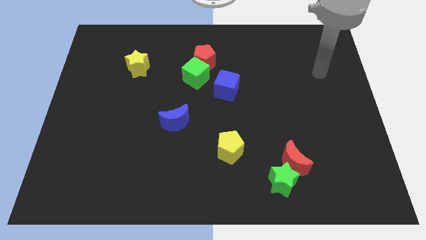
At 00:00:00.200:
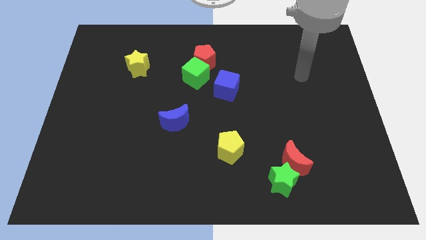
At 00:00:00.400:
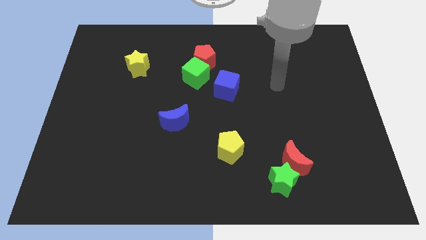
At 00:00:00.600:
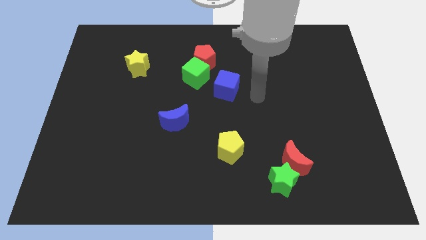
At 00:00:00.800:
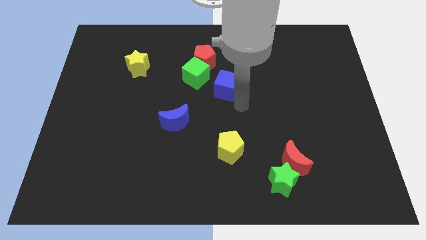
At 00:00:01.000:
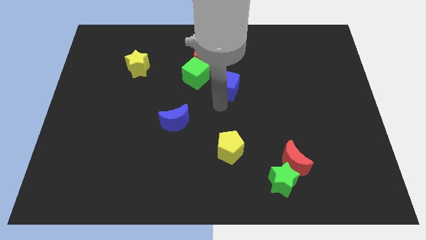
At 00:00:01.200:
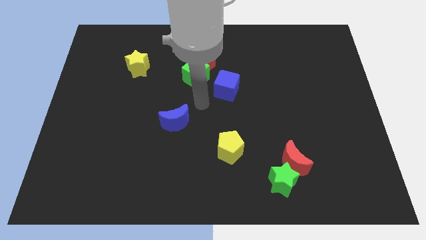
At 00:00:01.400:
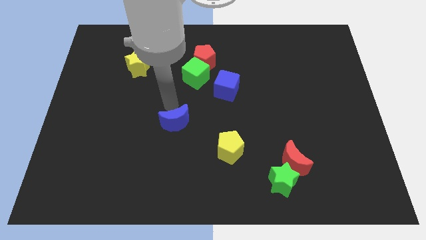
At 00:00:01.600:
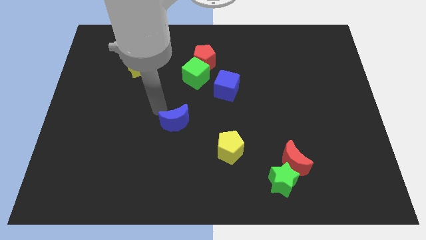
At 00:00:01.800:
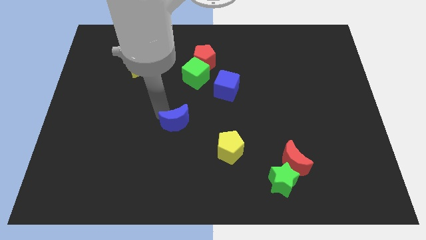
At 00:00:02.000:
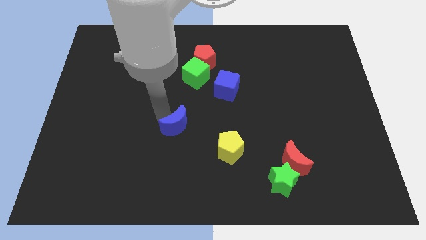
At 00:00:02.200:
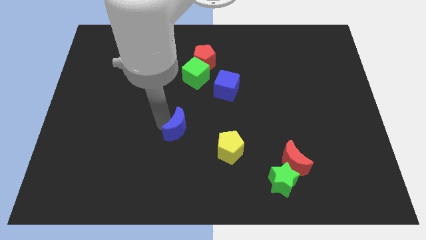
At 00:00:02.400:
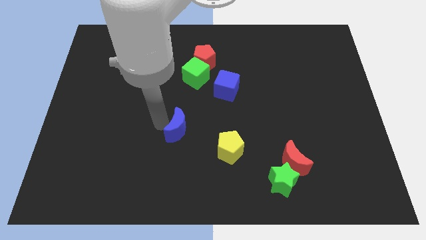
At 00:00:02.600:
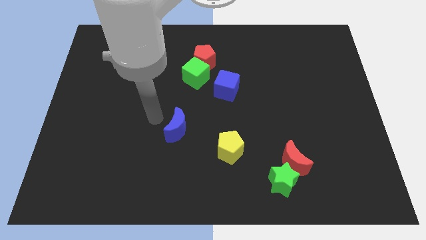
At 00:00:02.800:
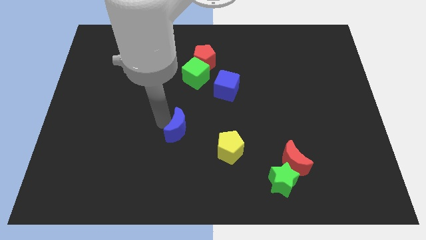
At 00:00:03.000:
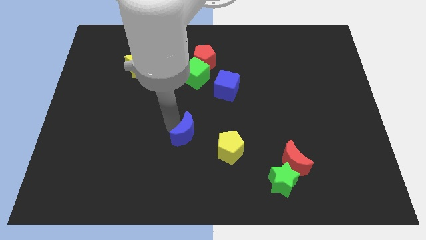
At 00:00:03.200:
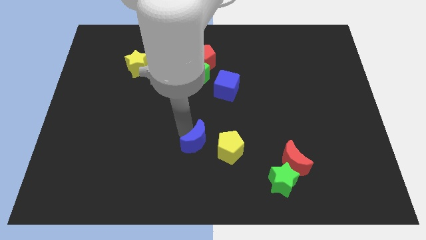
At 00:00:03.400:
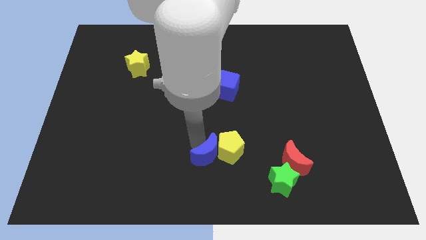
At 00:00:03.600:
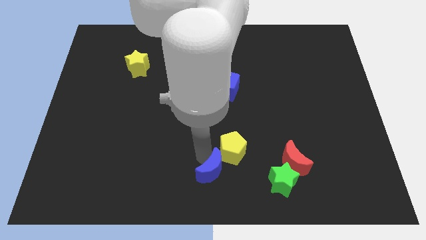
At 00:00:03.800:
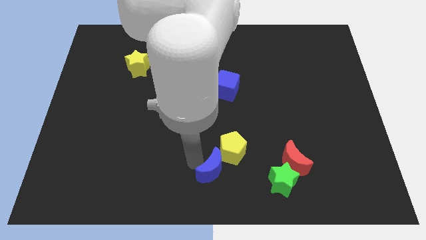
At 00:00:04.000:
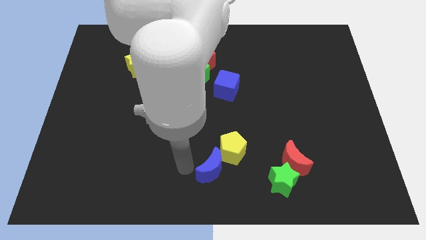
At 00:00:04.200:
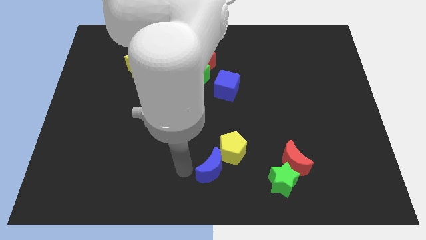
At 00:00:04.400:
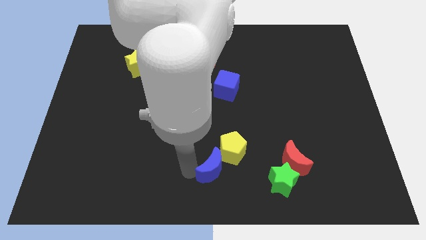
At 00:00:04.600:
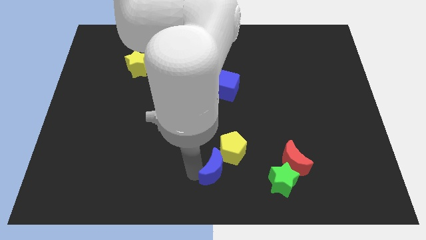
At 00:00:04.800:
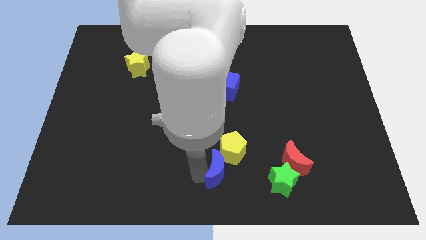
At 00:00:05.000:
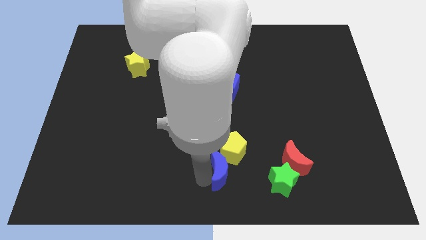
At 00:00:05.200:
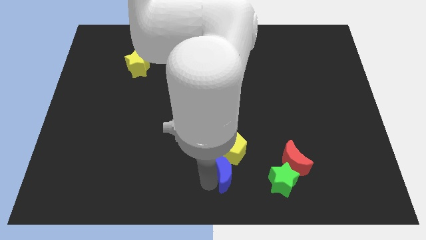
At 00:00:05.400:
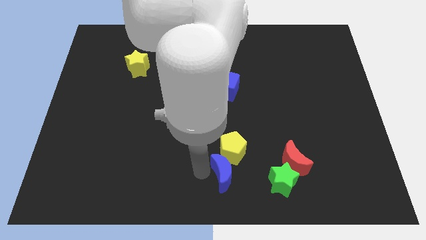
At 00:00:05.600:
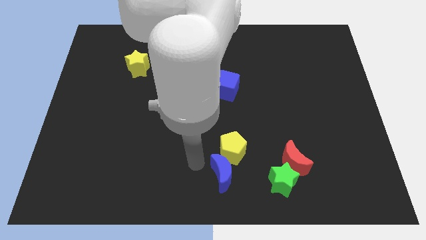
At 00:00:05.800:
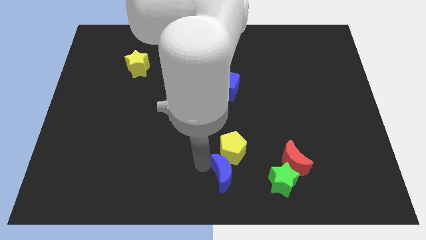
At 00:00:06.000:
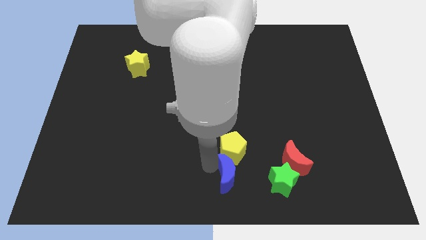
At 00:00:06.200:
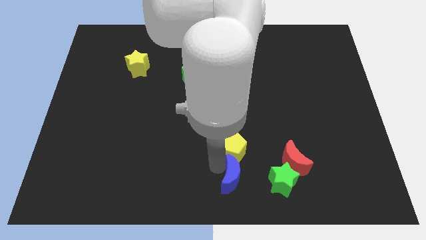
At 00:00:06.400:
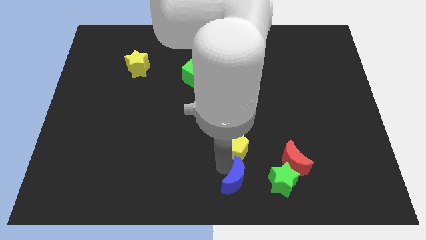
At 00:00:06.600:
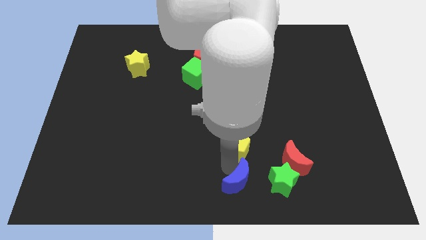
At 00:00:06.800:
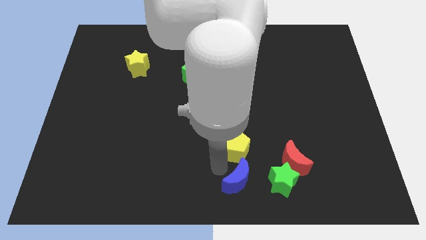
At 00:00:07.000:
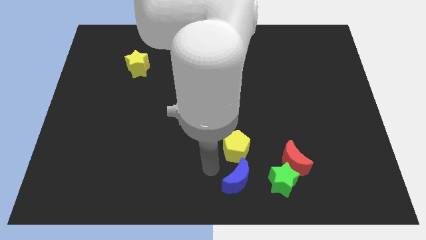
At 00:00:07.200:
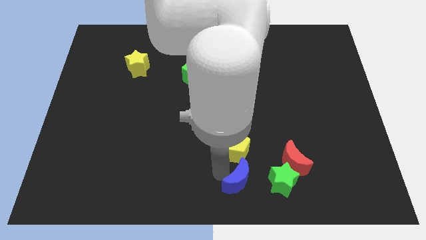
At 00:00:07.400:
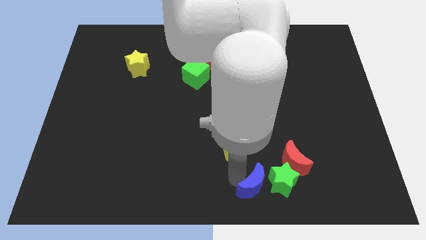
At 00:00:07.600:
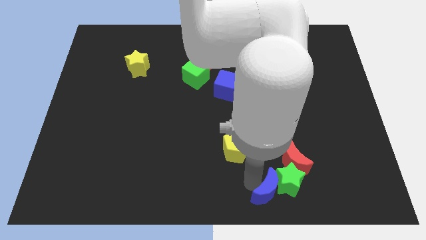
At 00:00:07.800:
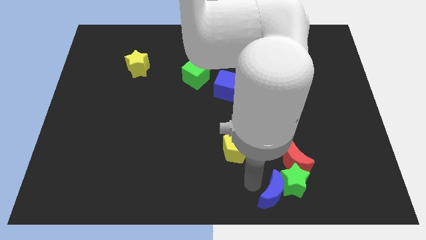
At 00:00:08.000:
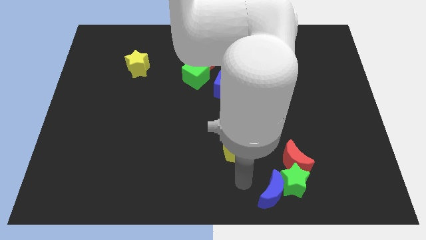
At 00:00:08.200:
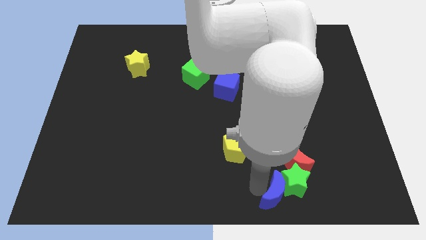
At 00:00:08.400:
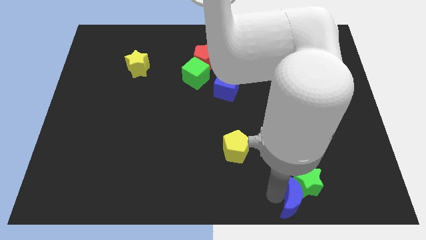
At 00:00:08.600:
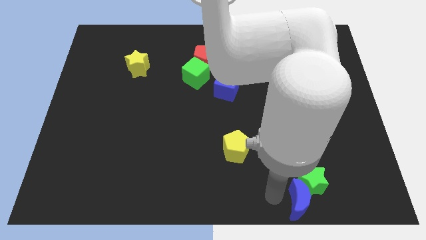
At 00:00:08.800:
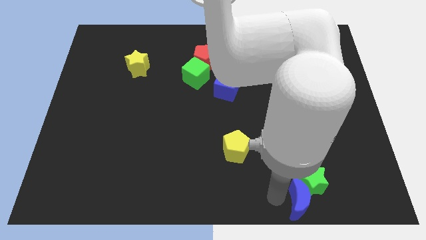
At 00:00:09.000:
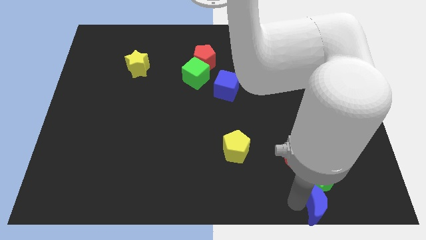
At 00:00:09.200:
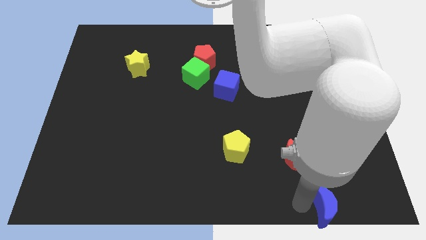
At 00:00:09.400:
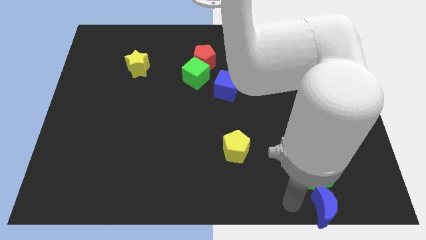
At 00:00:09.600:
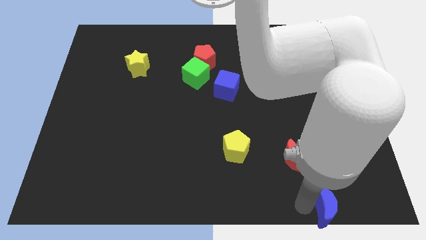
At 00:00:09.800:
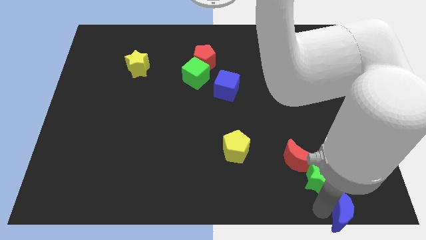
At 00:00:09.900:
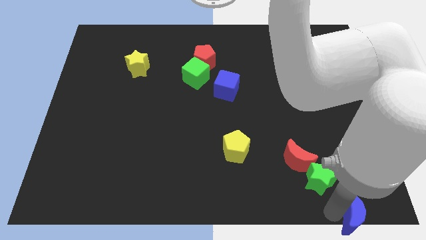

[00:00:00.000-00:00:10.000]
push the blue moon to the bottom right

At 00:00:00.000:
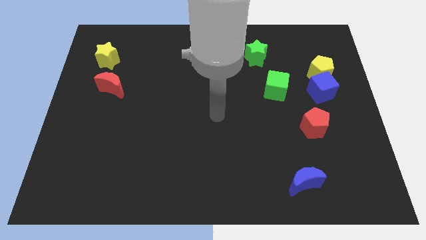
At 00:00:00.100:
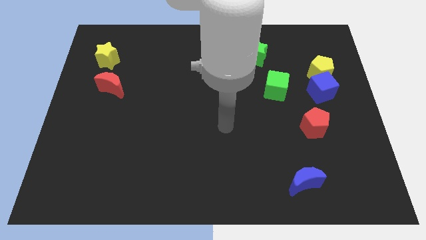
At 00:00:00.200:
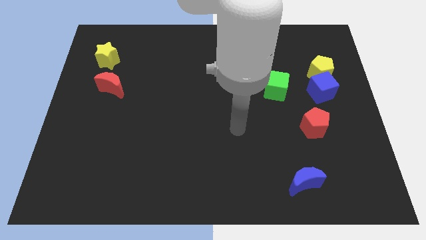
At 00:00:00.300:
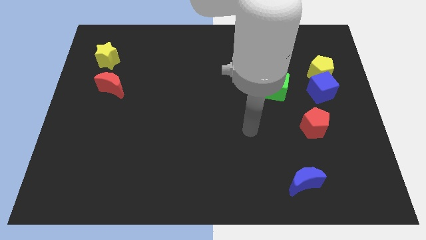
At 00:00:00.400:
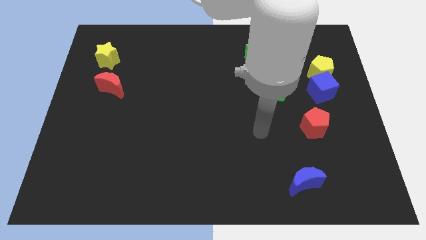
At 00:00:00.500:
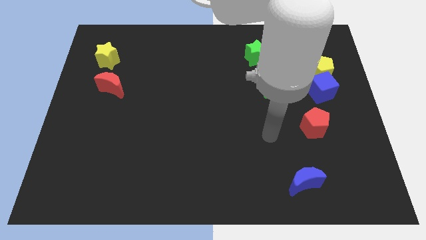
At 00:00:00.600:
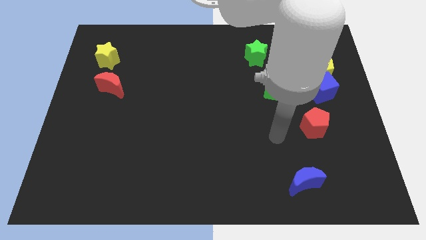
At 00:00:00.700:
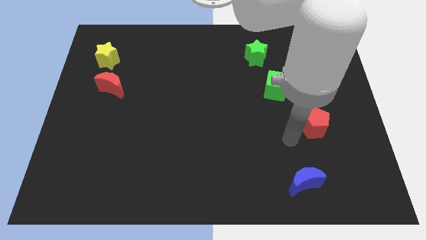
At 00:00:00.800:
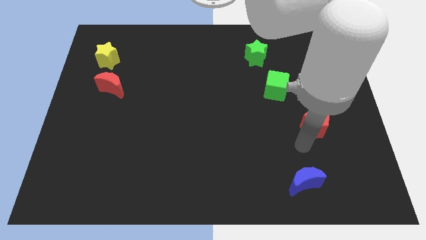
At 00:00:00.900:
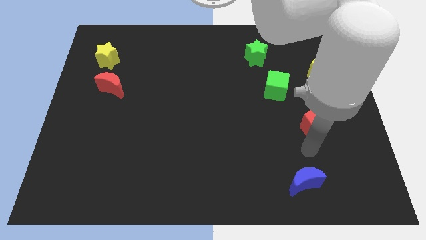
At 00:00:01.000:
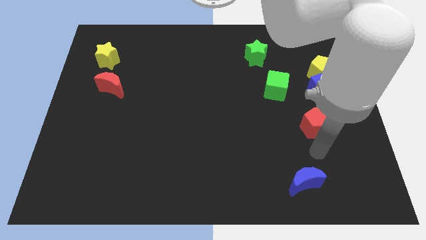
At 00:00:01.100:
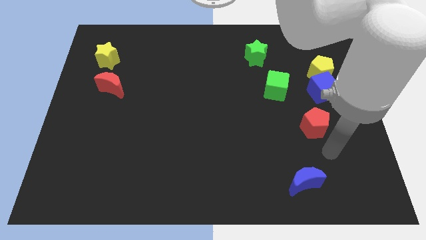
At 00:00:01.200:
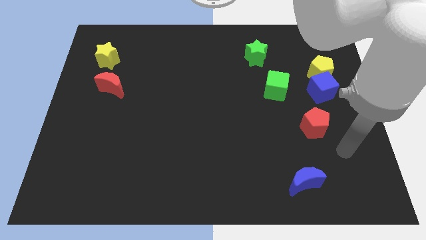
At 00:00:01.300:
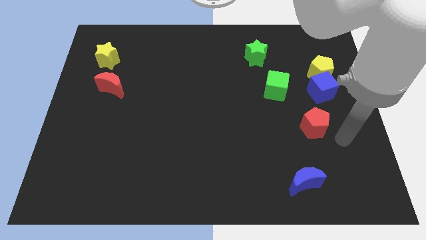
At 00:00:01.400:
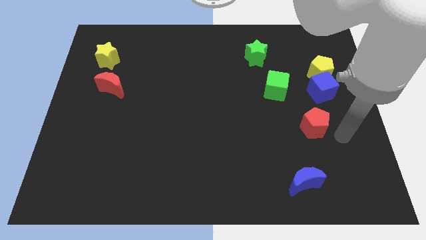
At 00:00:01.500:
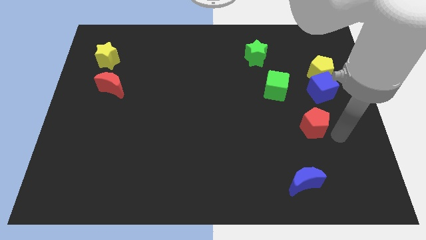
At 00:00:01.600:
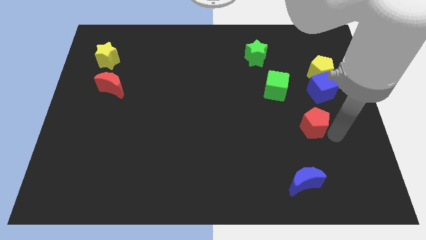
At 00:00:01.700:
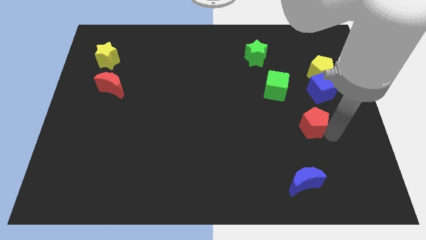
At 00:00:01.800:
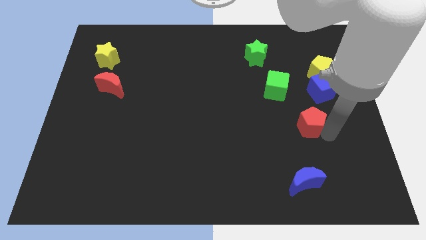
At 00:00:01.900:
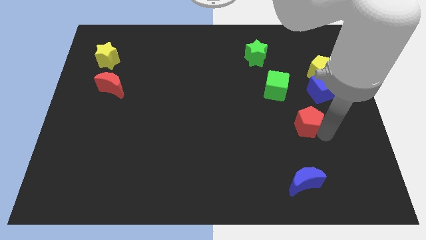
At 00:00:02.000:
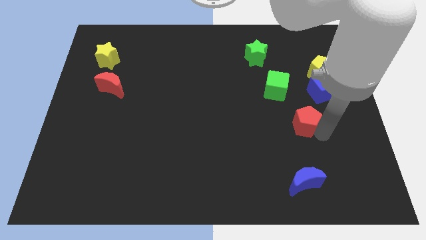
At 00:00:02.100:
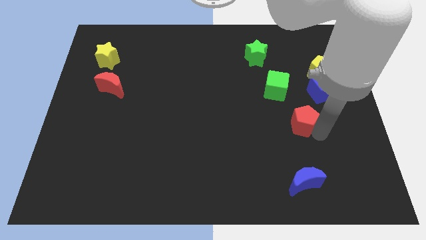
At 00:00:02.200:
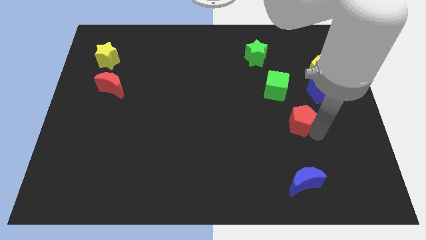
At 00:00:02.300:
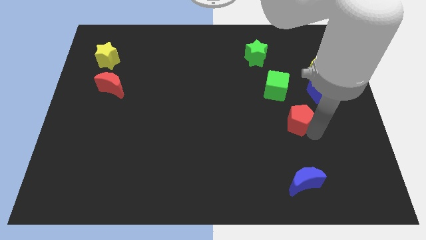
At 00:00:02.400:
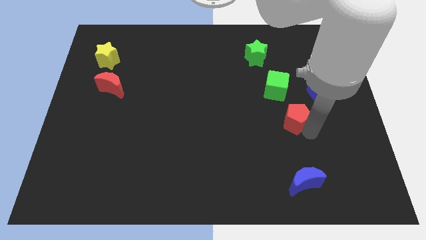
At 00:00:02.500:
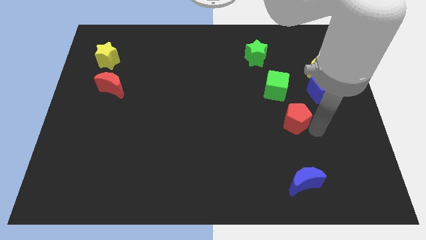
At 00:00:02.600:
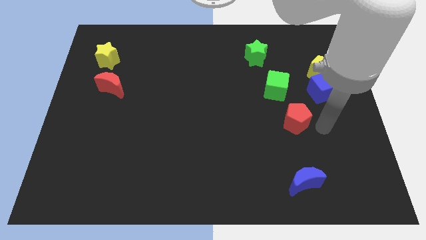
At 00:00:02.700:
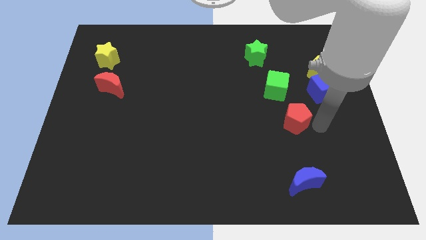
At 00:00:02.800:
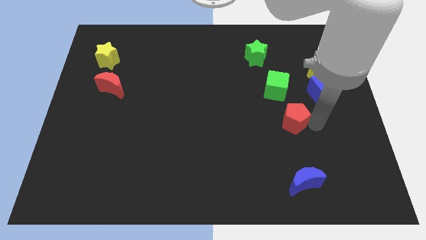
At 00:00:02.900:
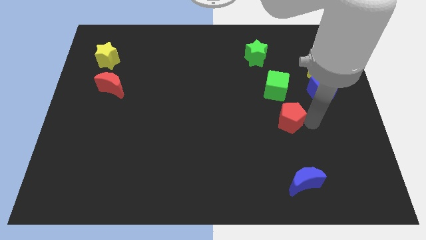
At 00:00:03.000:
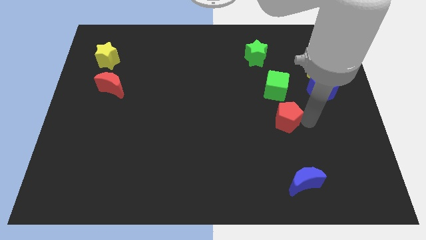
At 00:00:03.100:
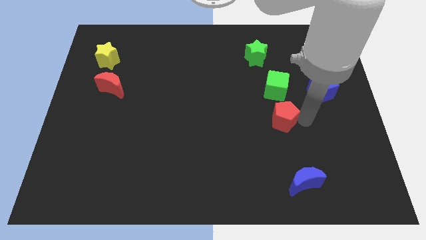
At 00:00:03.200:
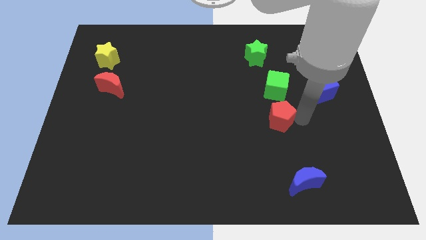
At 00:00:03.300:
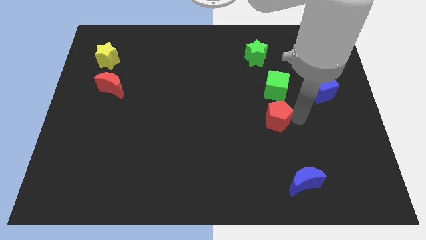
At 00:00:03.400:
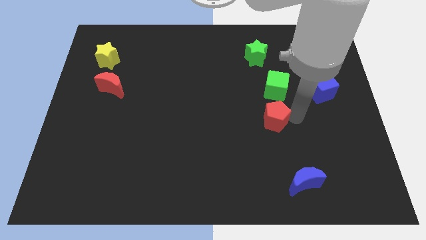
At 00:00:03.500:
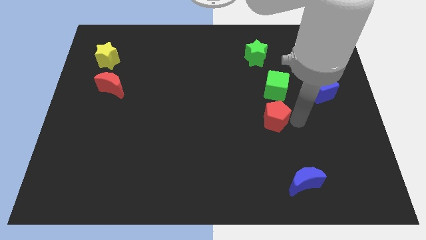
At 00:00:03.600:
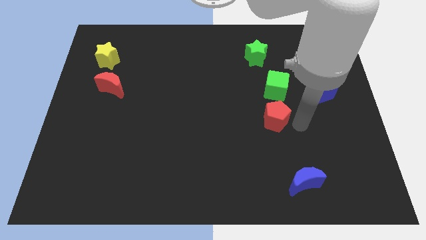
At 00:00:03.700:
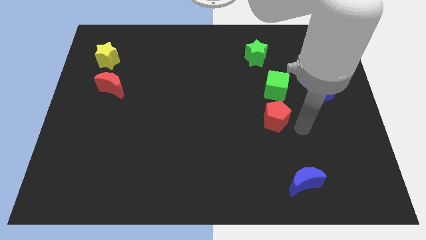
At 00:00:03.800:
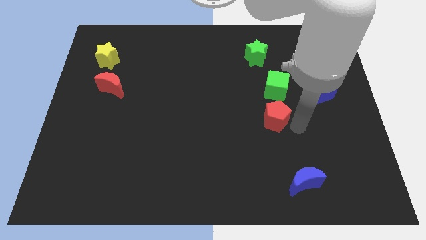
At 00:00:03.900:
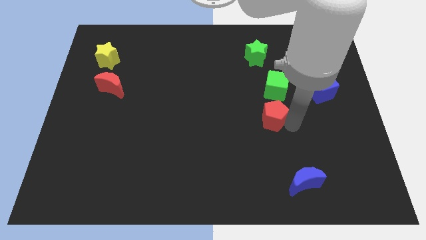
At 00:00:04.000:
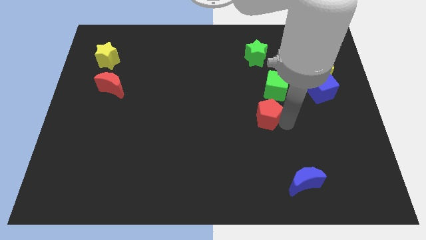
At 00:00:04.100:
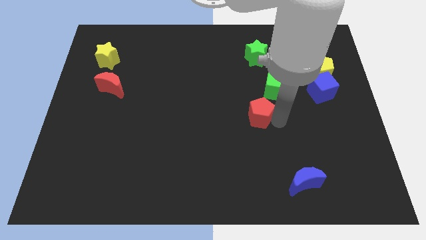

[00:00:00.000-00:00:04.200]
put the red pentagon to the middle of the board
